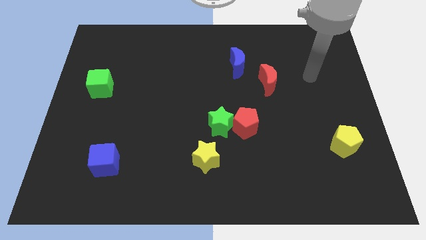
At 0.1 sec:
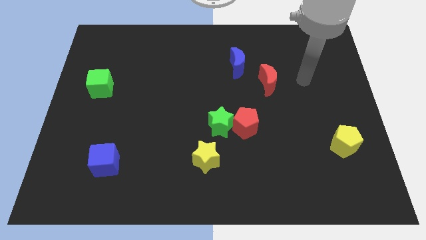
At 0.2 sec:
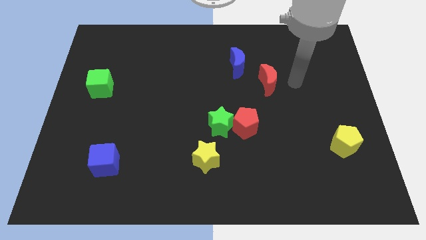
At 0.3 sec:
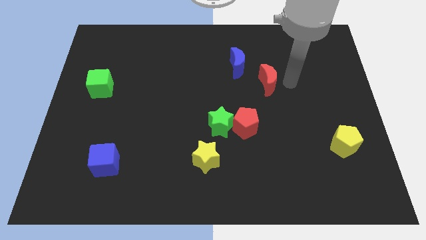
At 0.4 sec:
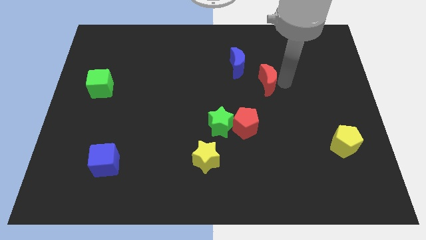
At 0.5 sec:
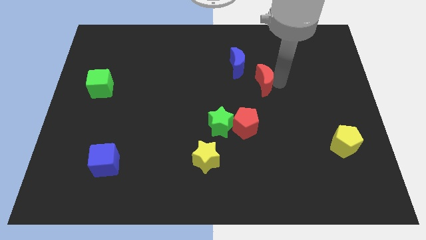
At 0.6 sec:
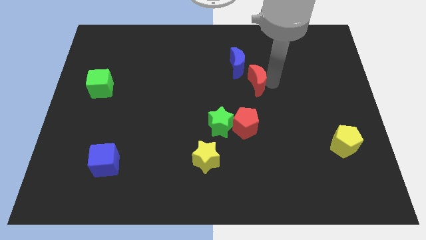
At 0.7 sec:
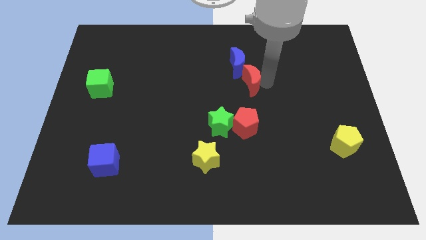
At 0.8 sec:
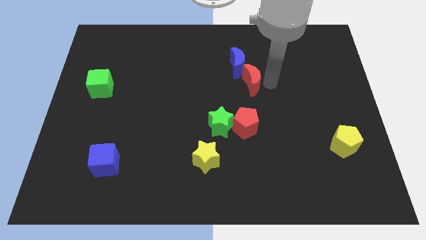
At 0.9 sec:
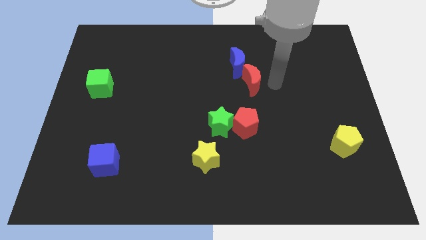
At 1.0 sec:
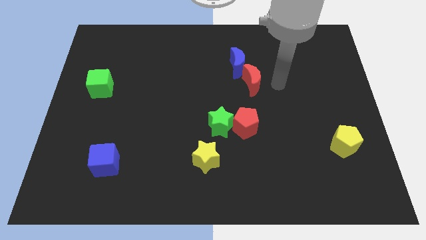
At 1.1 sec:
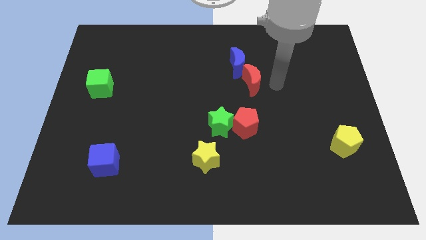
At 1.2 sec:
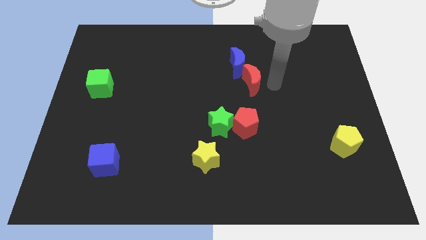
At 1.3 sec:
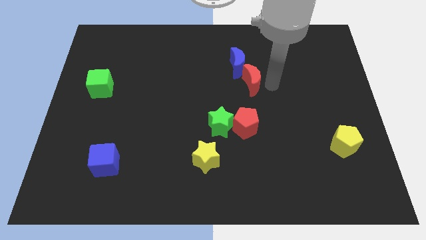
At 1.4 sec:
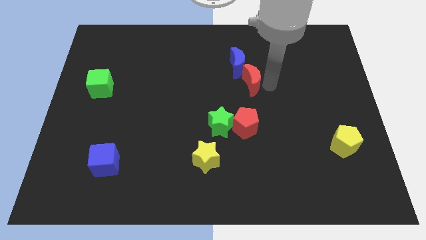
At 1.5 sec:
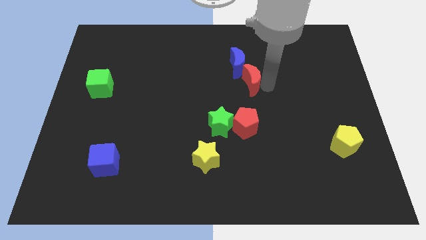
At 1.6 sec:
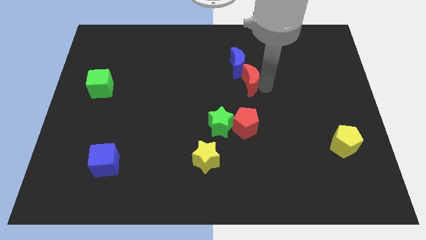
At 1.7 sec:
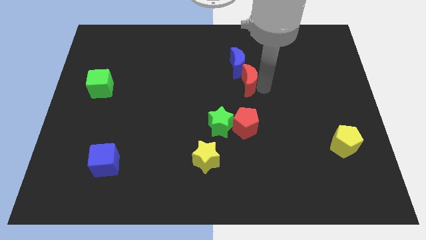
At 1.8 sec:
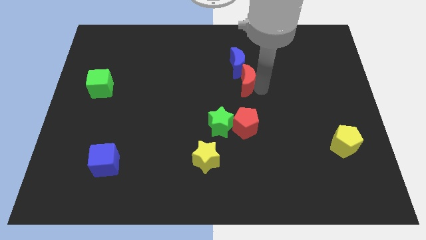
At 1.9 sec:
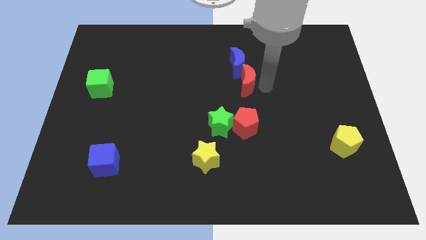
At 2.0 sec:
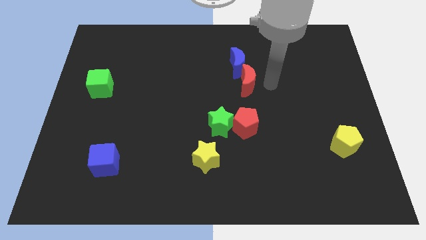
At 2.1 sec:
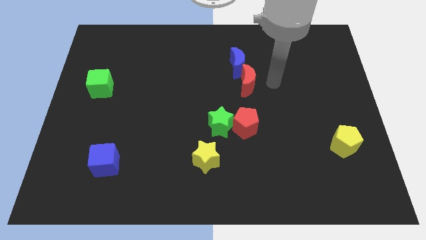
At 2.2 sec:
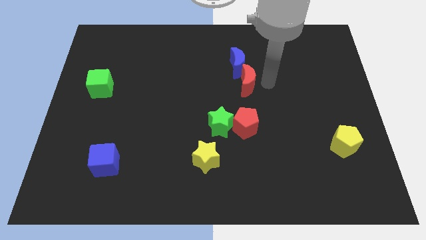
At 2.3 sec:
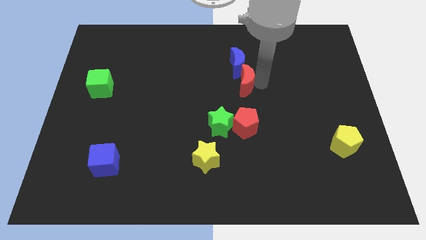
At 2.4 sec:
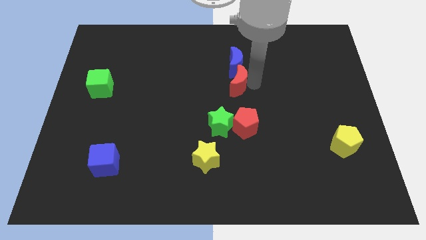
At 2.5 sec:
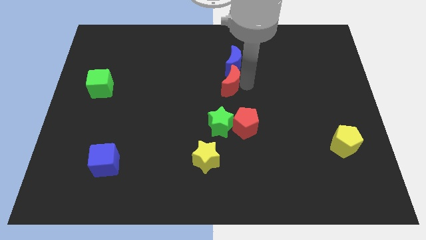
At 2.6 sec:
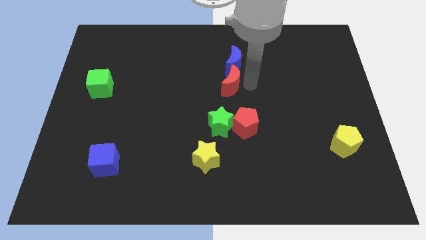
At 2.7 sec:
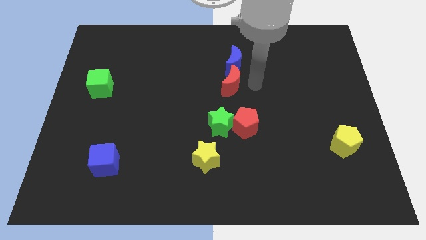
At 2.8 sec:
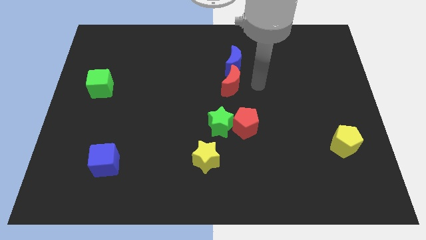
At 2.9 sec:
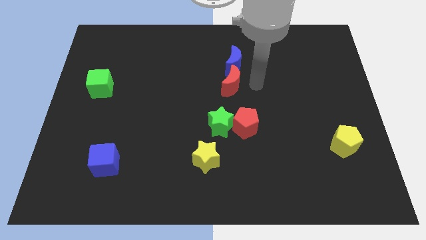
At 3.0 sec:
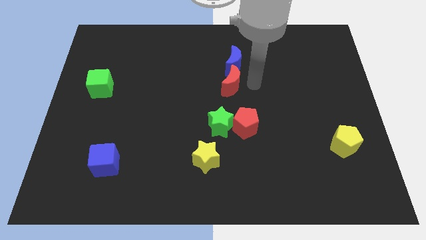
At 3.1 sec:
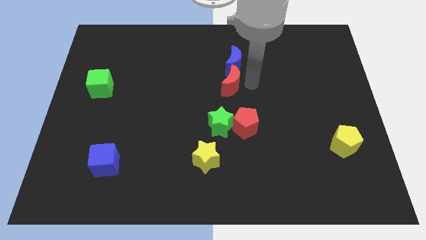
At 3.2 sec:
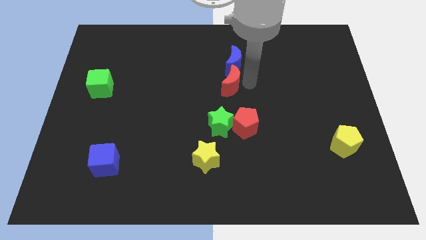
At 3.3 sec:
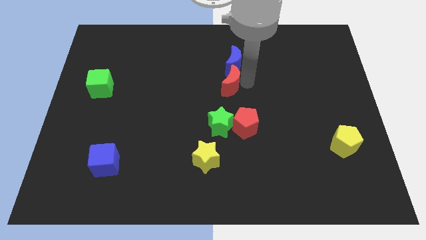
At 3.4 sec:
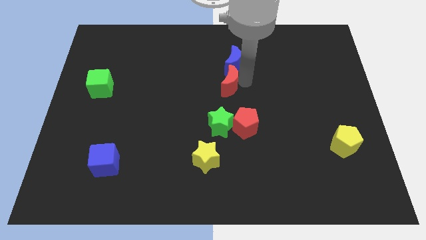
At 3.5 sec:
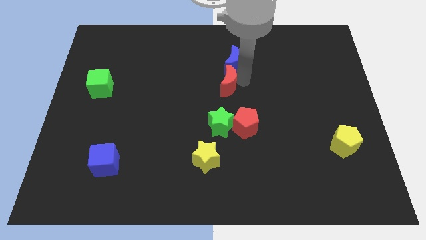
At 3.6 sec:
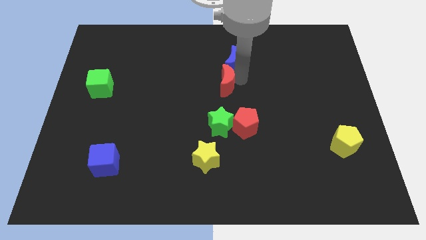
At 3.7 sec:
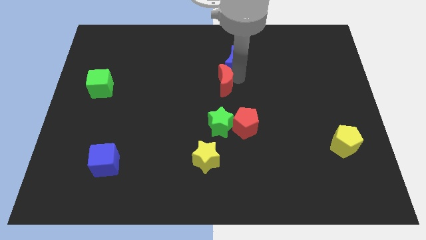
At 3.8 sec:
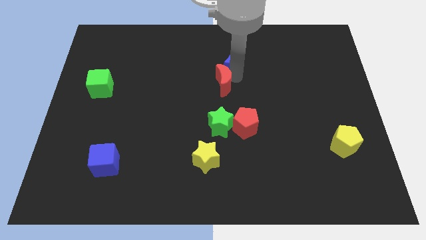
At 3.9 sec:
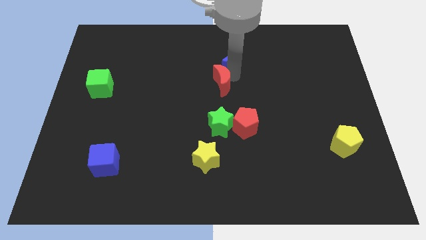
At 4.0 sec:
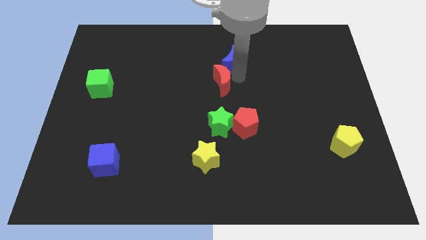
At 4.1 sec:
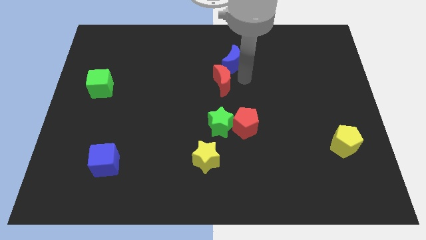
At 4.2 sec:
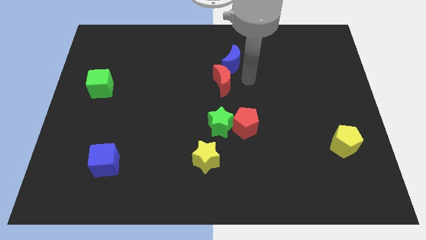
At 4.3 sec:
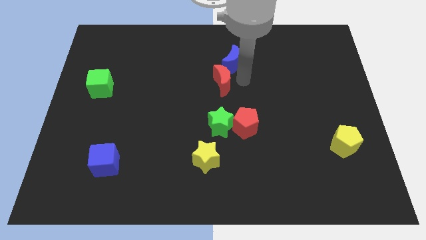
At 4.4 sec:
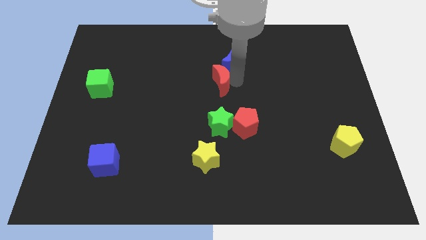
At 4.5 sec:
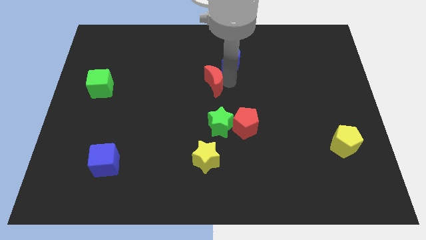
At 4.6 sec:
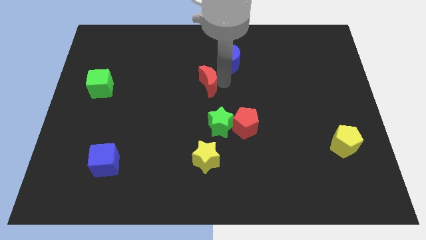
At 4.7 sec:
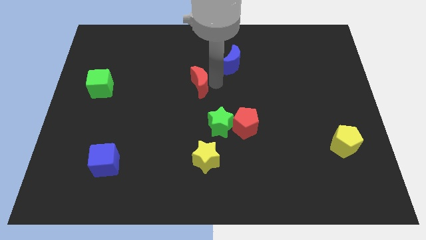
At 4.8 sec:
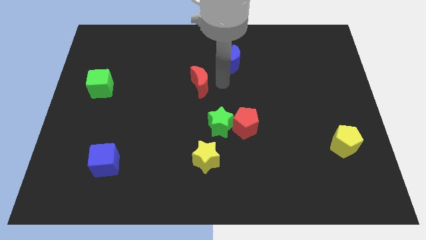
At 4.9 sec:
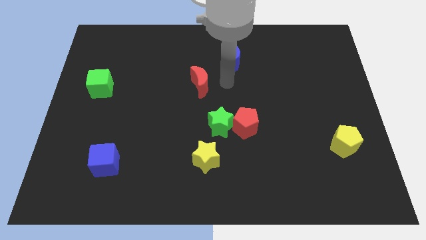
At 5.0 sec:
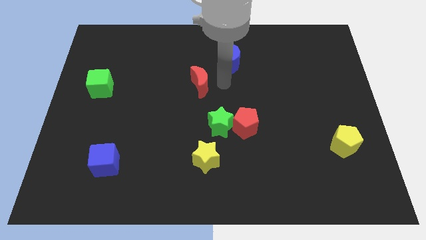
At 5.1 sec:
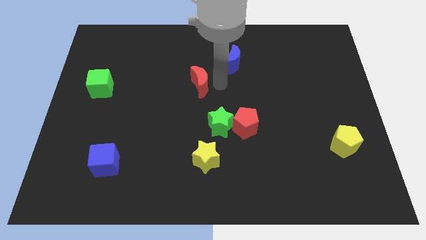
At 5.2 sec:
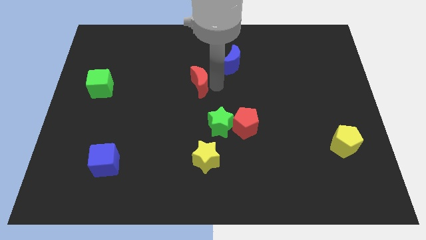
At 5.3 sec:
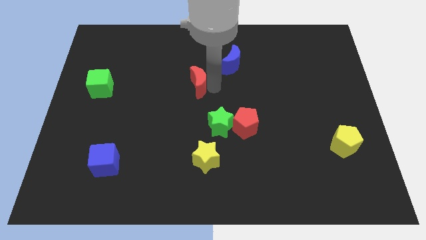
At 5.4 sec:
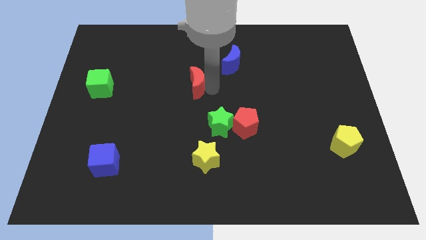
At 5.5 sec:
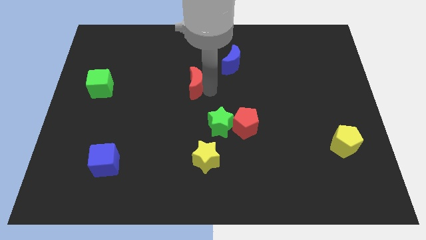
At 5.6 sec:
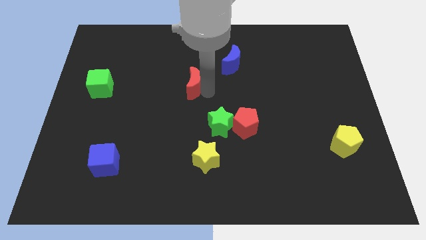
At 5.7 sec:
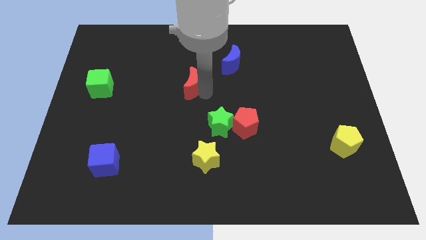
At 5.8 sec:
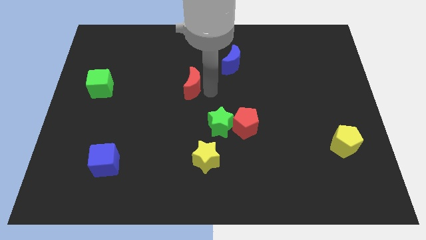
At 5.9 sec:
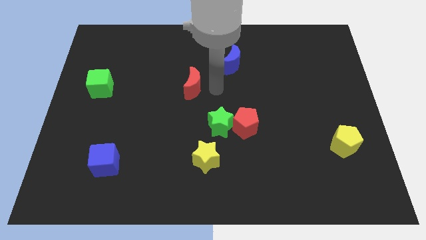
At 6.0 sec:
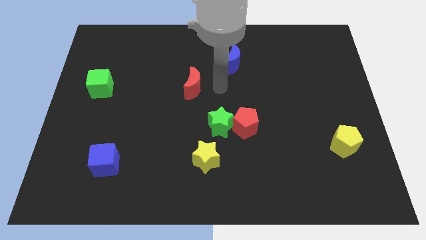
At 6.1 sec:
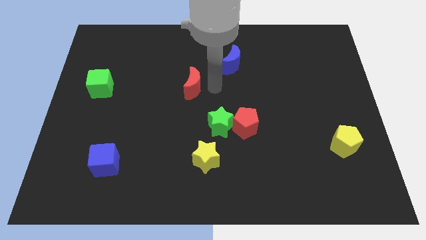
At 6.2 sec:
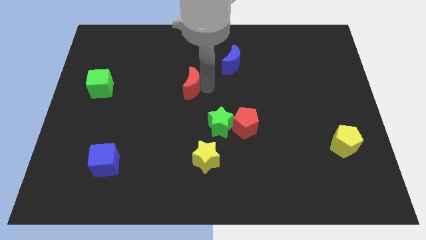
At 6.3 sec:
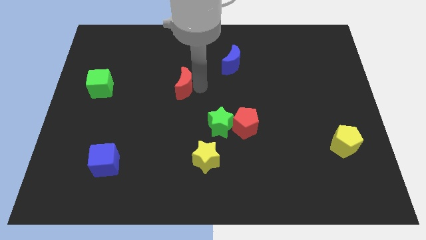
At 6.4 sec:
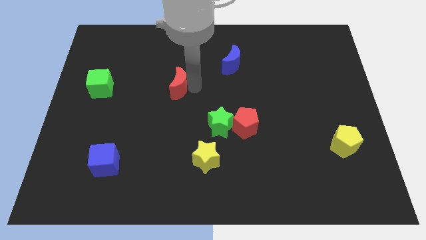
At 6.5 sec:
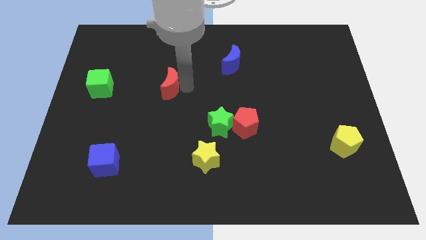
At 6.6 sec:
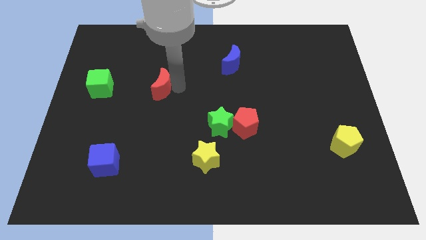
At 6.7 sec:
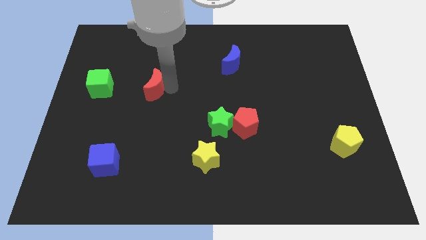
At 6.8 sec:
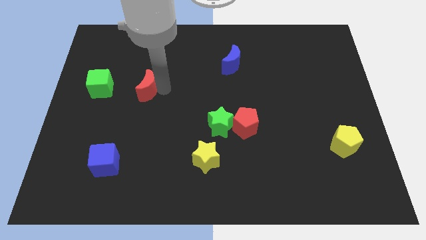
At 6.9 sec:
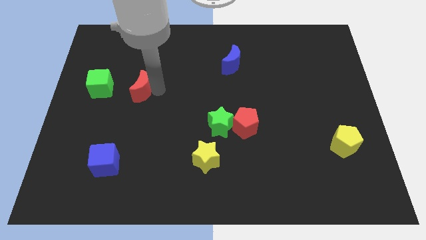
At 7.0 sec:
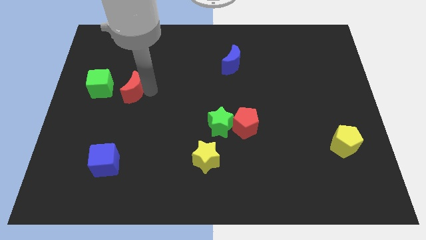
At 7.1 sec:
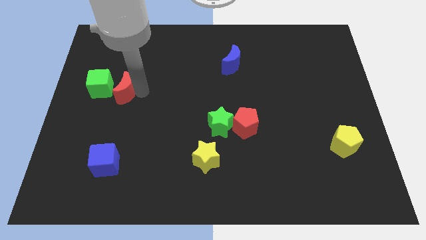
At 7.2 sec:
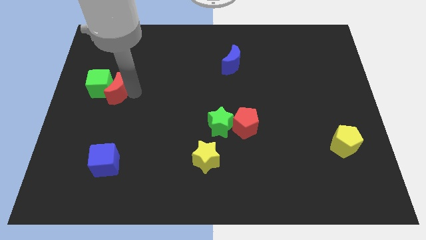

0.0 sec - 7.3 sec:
slide the red moon close to the green cube

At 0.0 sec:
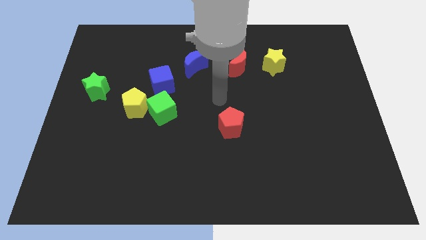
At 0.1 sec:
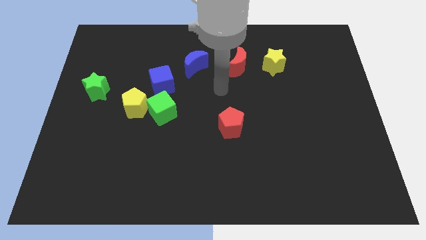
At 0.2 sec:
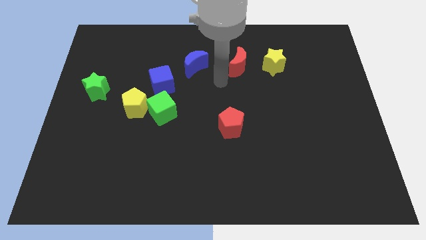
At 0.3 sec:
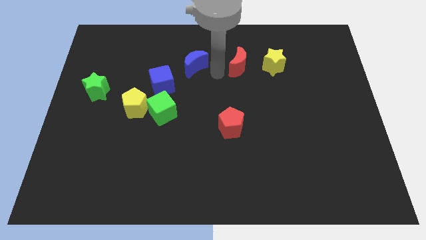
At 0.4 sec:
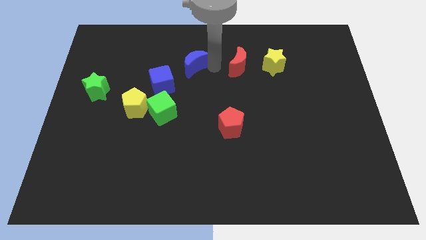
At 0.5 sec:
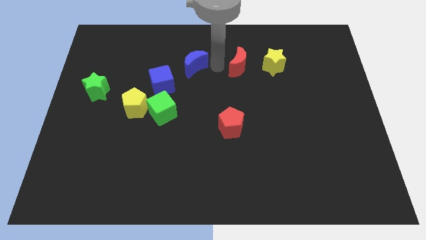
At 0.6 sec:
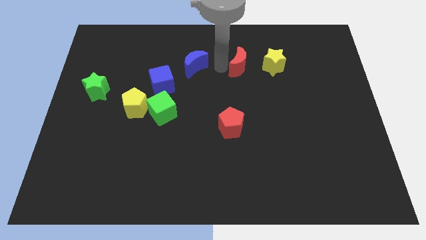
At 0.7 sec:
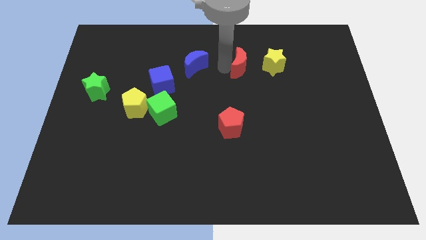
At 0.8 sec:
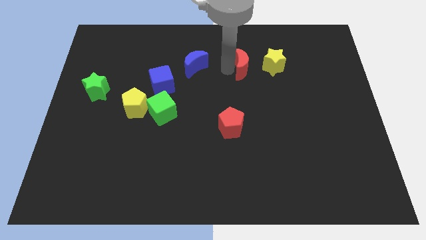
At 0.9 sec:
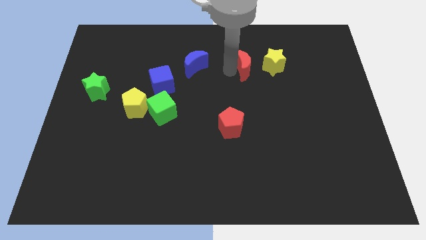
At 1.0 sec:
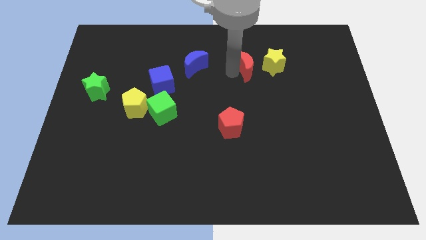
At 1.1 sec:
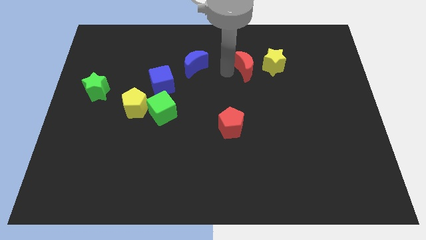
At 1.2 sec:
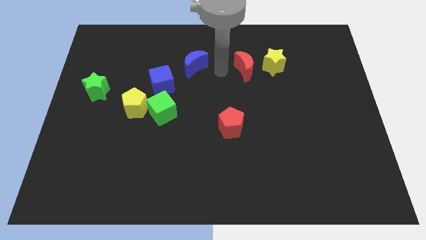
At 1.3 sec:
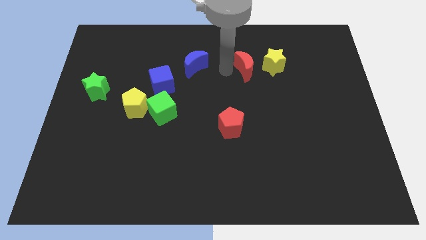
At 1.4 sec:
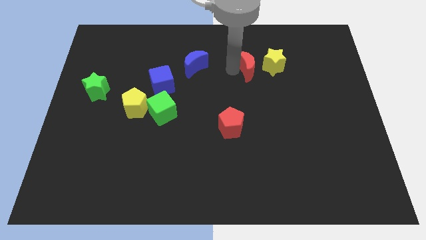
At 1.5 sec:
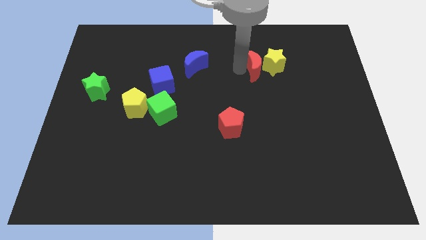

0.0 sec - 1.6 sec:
slide the red moon towards the yellow star
